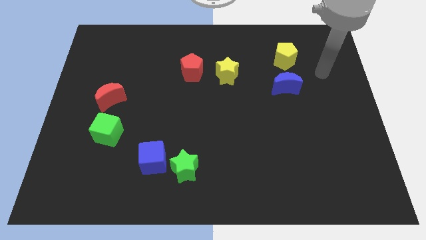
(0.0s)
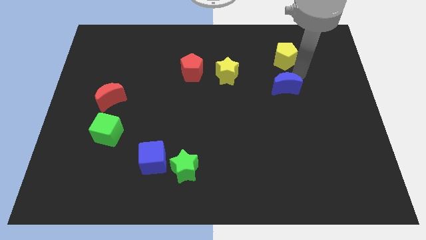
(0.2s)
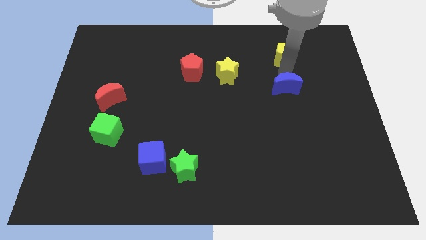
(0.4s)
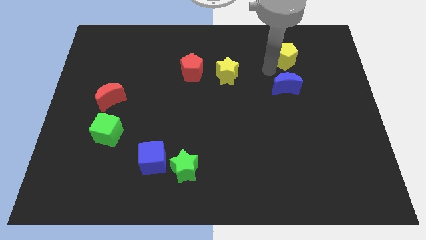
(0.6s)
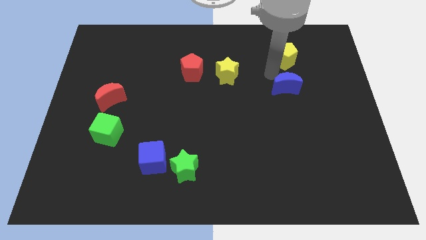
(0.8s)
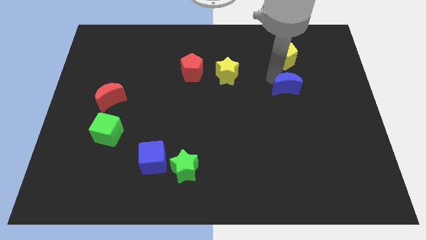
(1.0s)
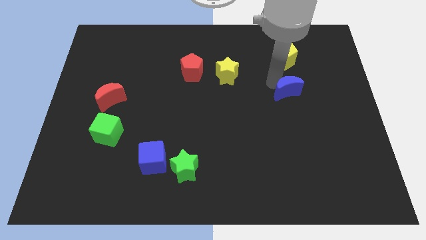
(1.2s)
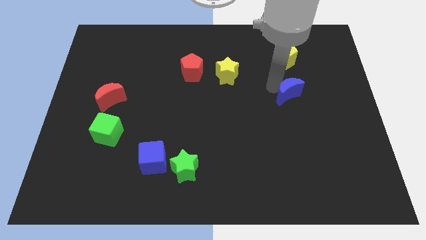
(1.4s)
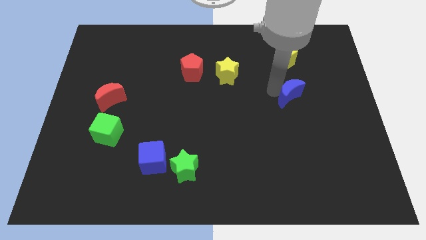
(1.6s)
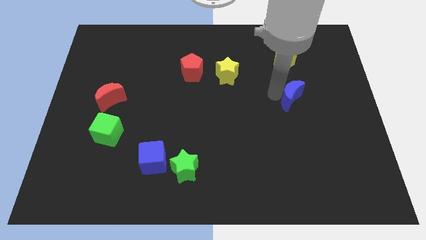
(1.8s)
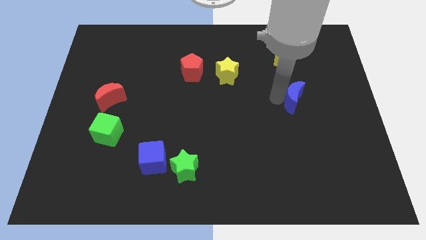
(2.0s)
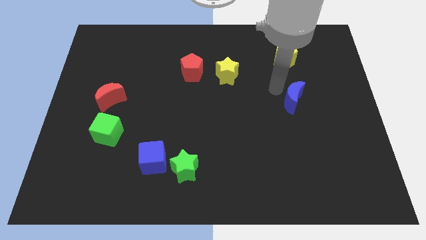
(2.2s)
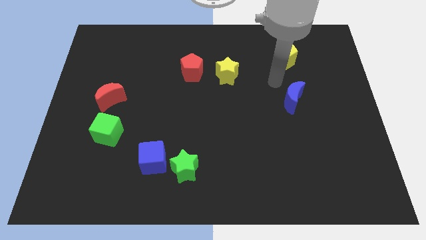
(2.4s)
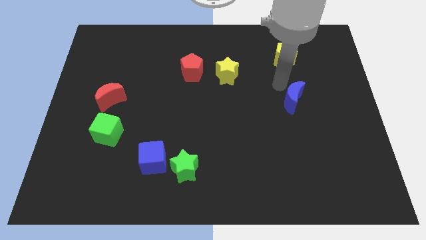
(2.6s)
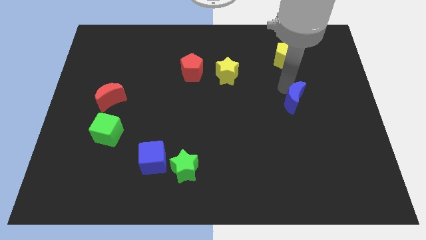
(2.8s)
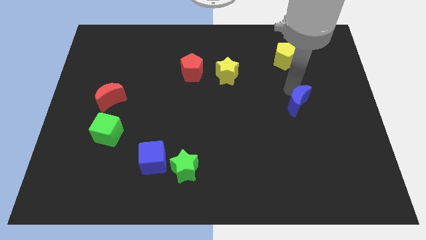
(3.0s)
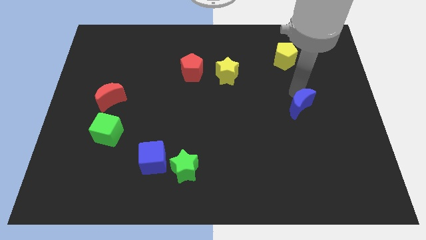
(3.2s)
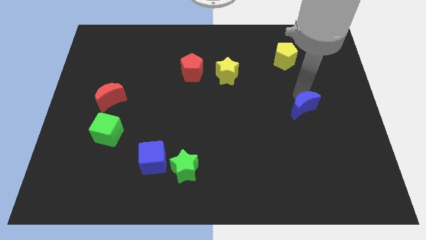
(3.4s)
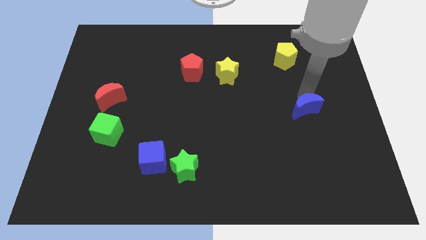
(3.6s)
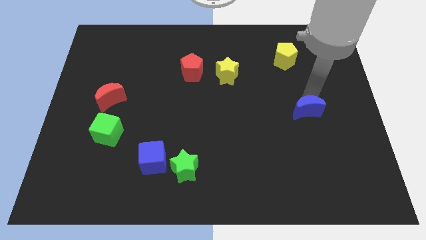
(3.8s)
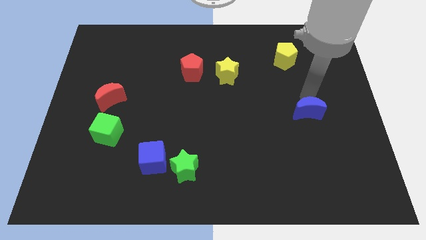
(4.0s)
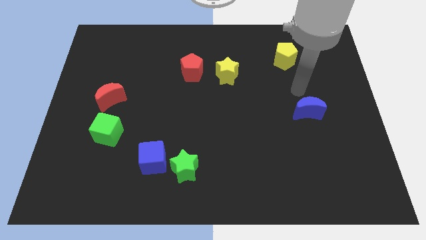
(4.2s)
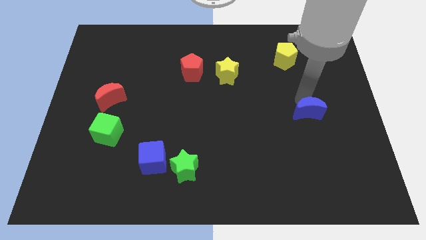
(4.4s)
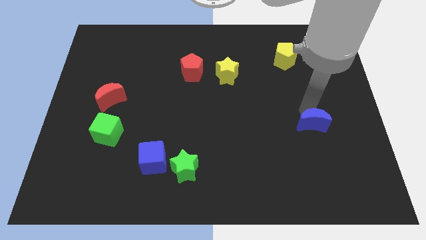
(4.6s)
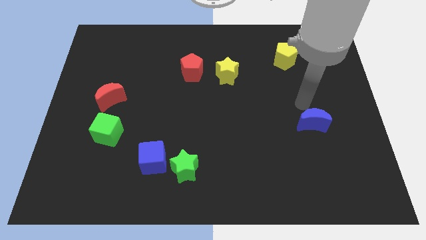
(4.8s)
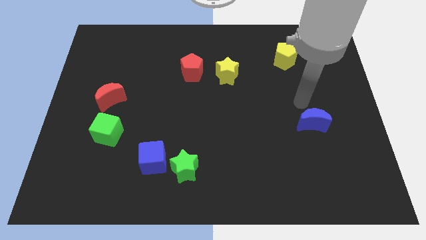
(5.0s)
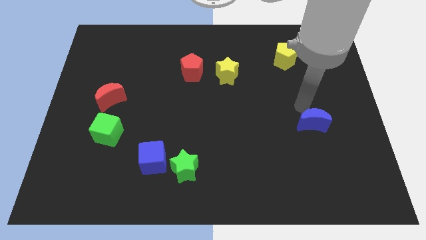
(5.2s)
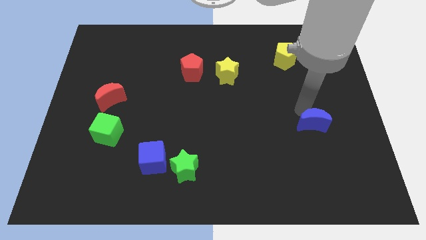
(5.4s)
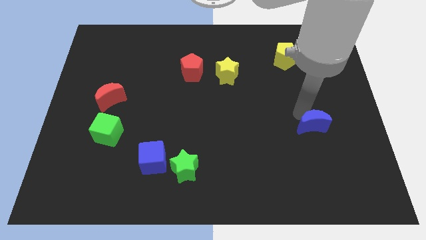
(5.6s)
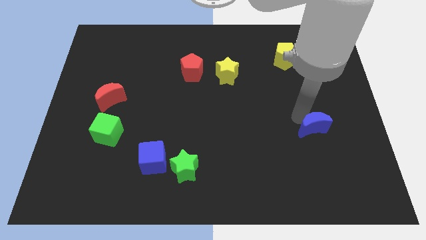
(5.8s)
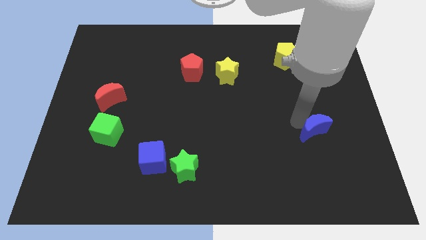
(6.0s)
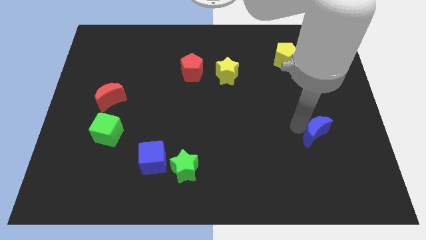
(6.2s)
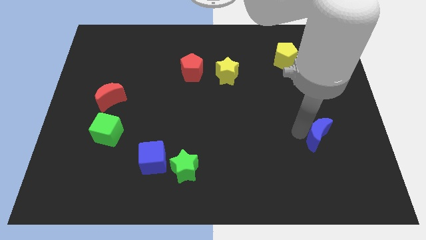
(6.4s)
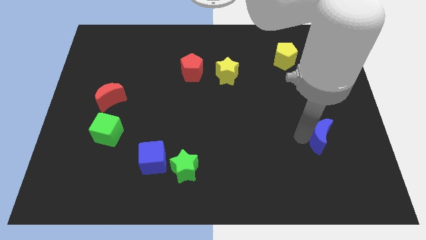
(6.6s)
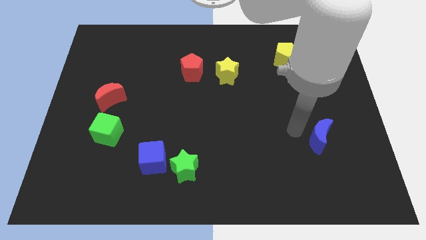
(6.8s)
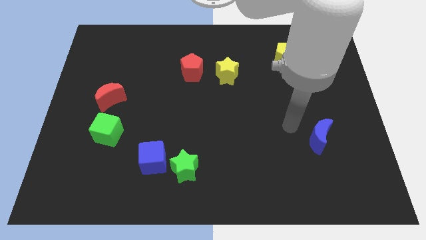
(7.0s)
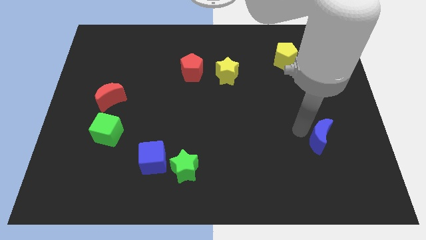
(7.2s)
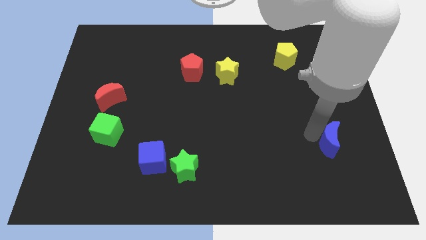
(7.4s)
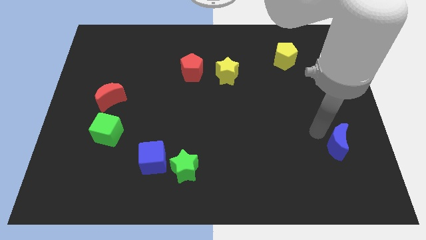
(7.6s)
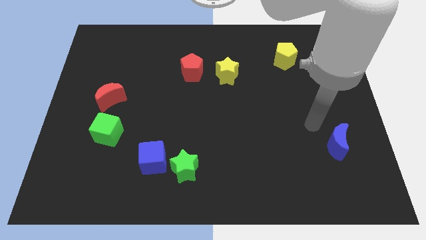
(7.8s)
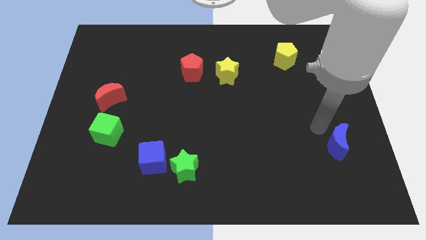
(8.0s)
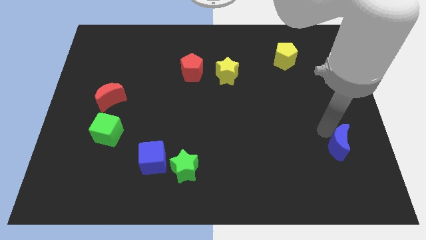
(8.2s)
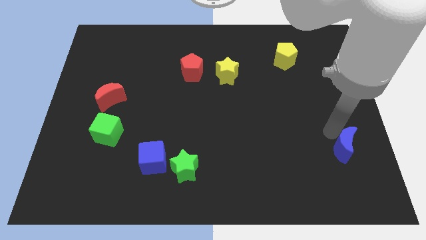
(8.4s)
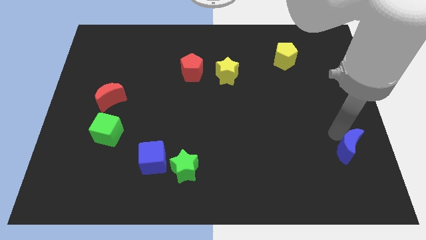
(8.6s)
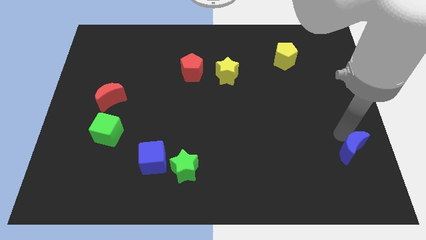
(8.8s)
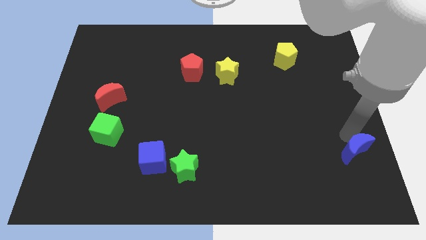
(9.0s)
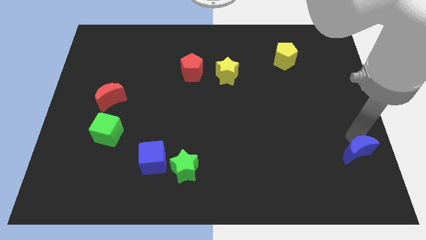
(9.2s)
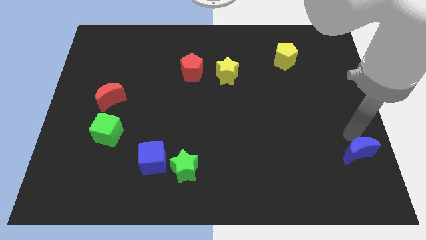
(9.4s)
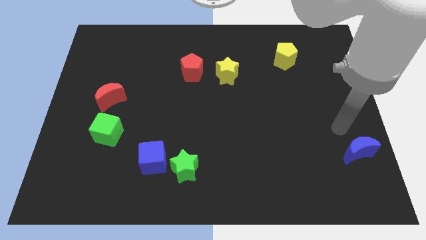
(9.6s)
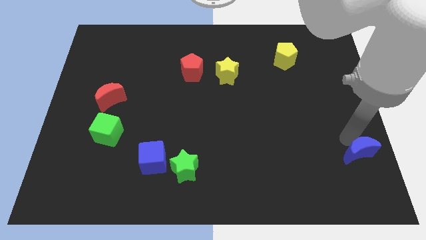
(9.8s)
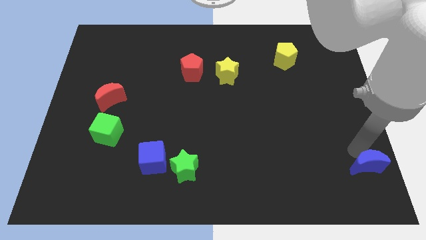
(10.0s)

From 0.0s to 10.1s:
put the blue moon to the bottom right

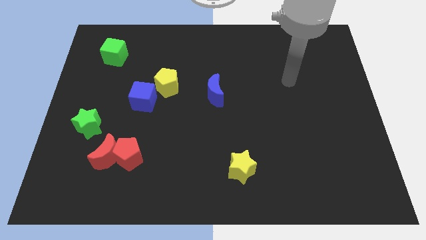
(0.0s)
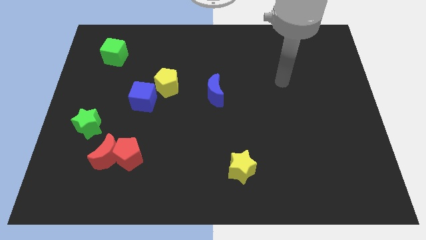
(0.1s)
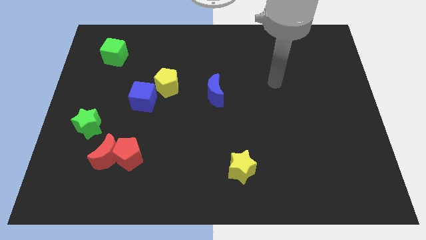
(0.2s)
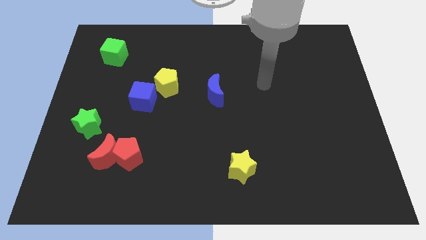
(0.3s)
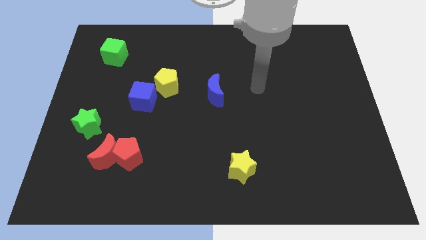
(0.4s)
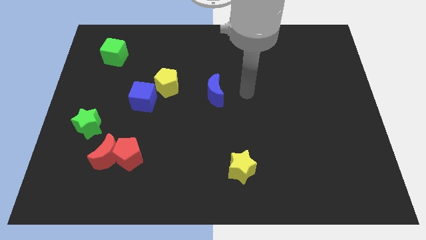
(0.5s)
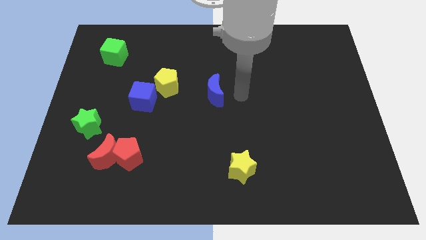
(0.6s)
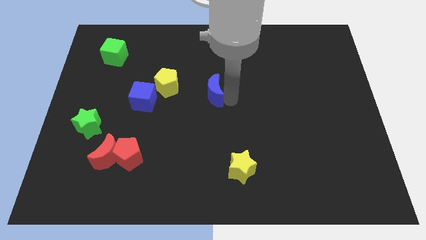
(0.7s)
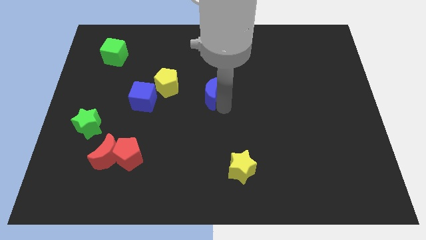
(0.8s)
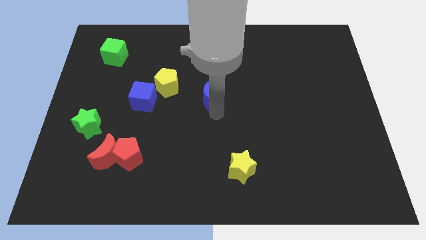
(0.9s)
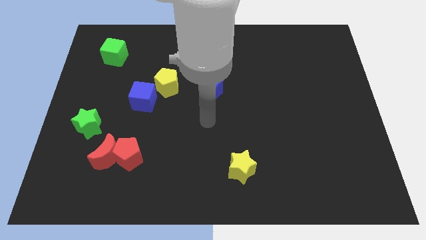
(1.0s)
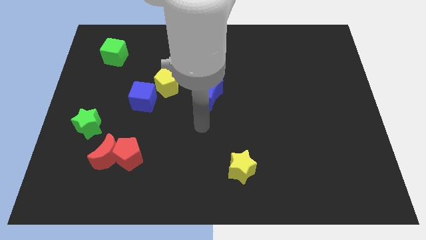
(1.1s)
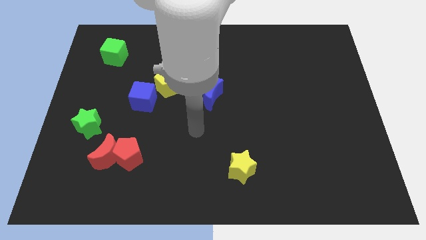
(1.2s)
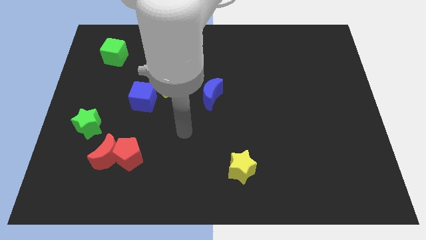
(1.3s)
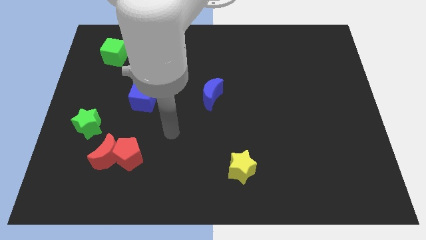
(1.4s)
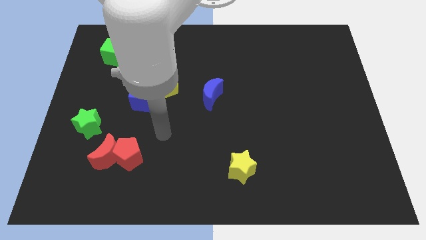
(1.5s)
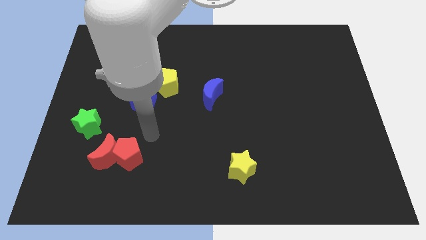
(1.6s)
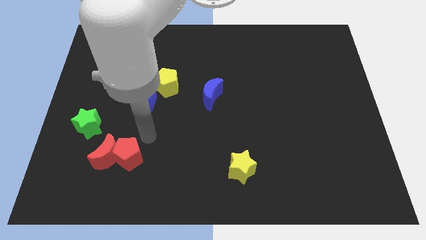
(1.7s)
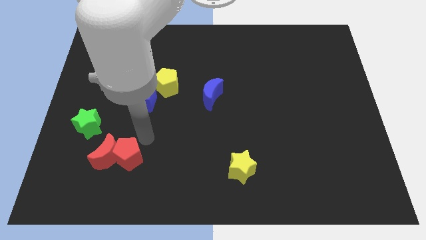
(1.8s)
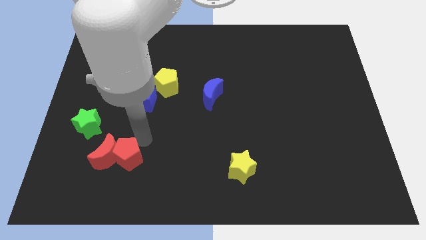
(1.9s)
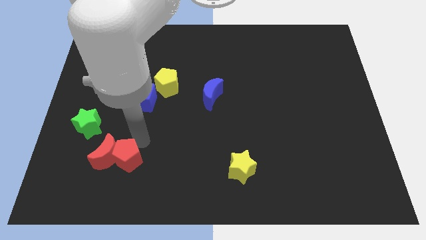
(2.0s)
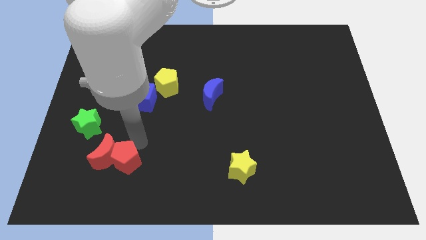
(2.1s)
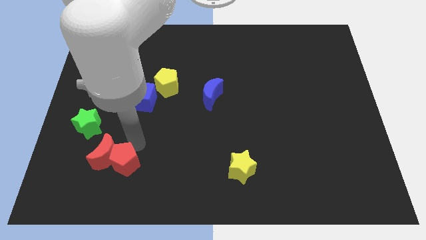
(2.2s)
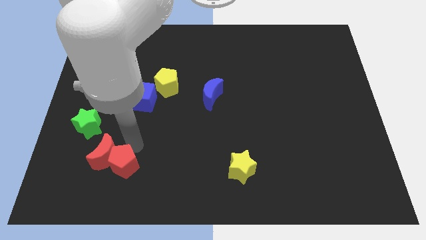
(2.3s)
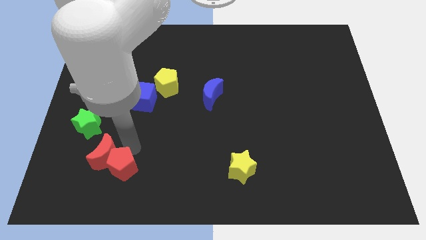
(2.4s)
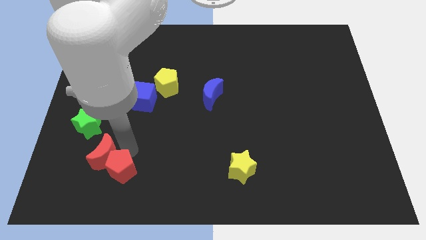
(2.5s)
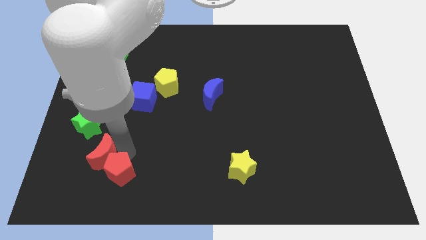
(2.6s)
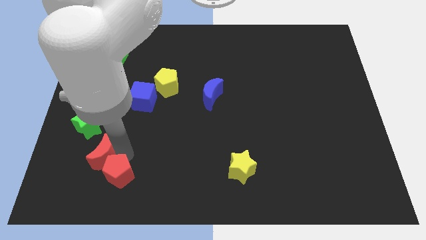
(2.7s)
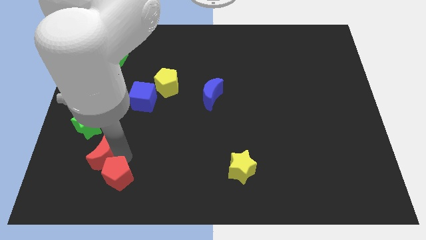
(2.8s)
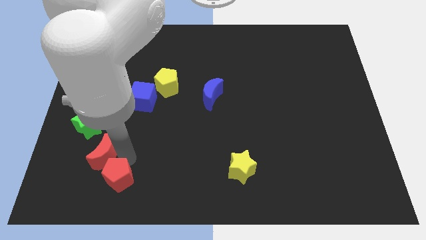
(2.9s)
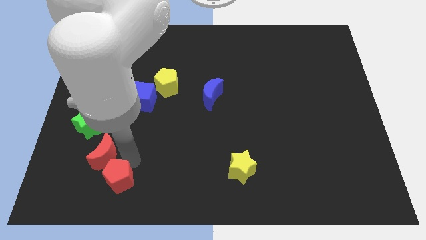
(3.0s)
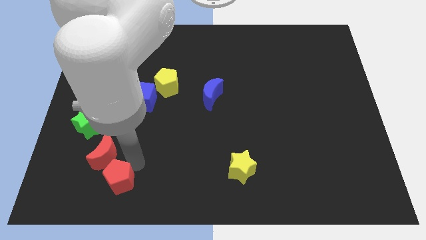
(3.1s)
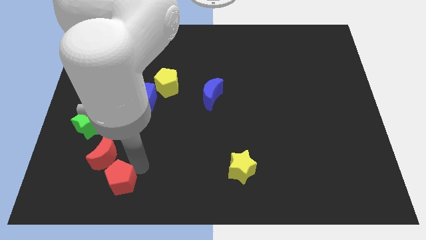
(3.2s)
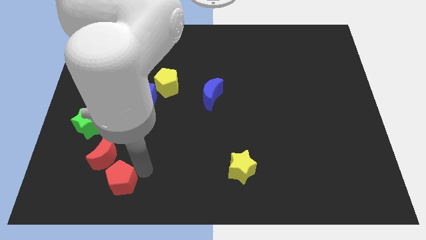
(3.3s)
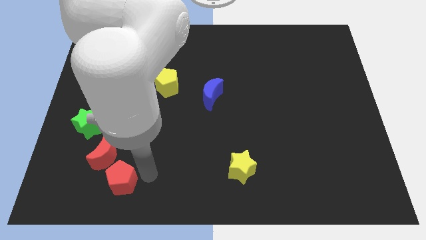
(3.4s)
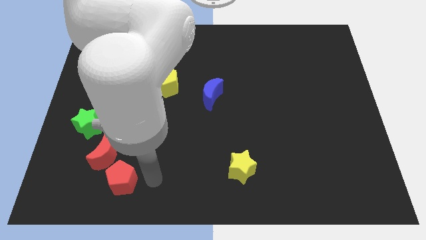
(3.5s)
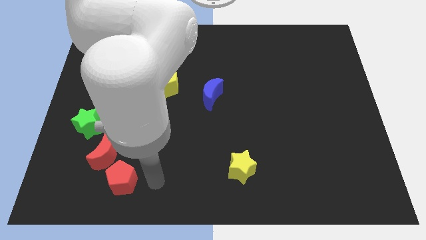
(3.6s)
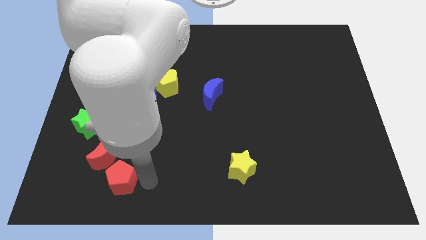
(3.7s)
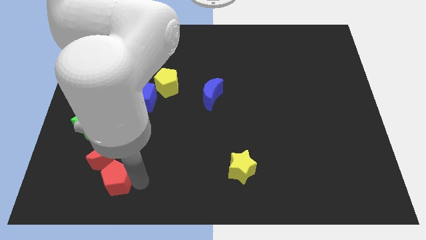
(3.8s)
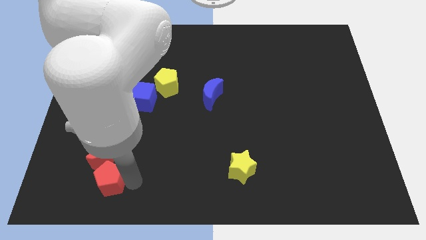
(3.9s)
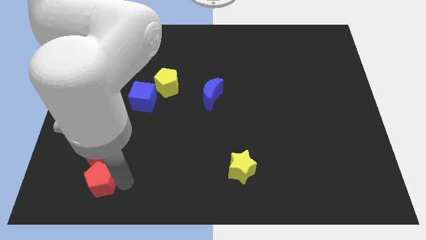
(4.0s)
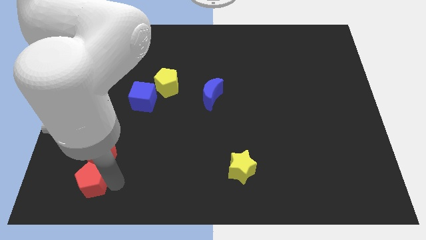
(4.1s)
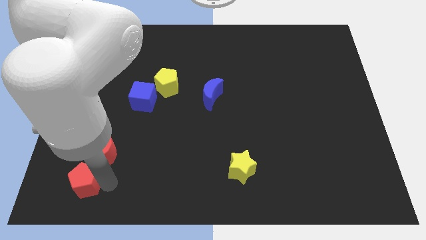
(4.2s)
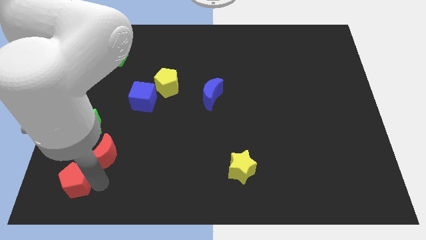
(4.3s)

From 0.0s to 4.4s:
push the red pentagon to the bottom left corner
